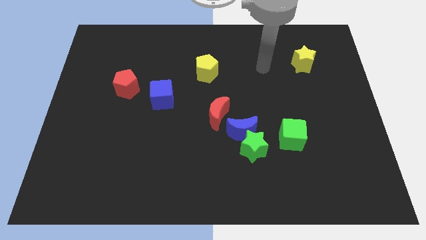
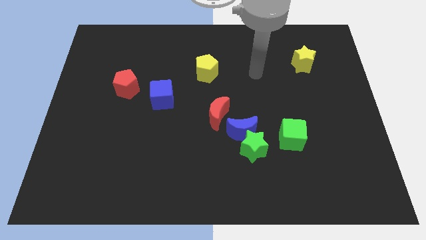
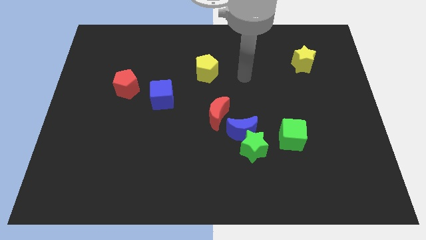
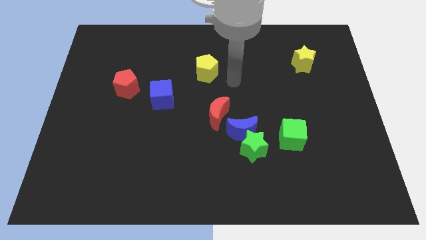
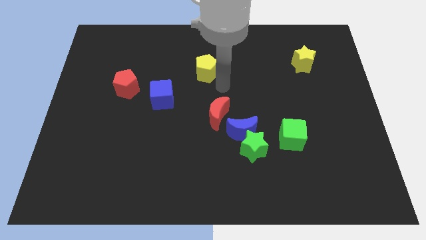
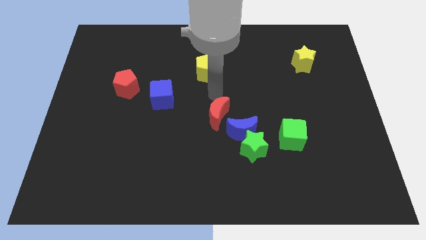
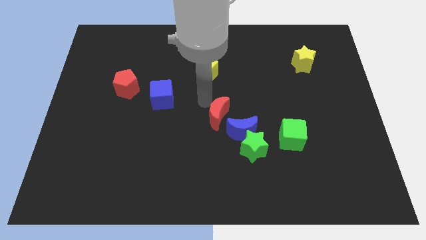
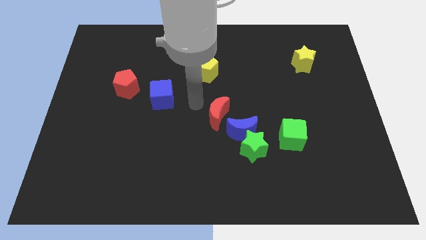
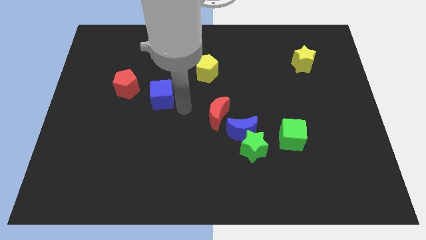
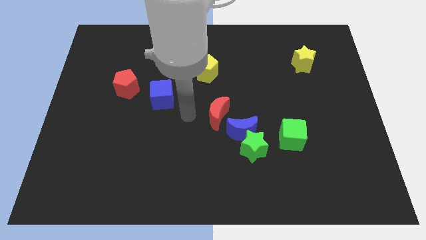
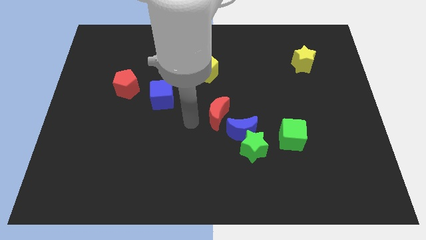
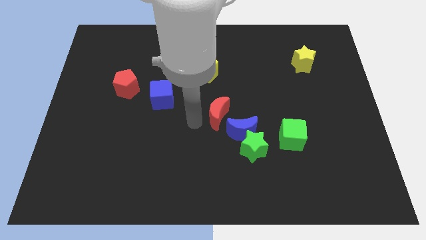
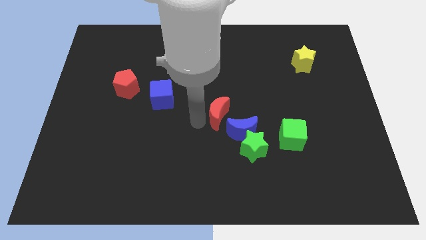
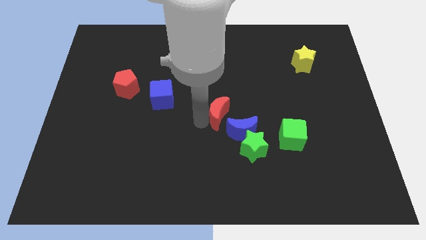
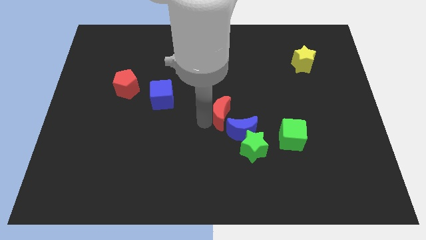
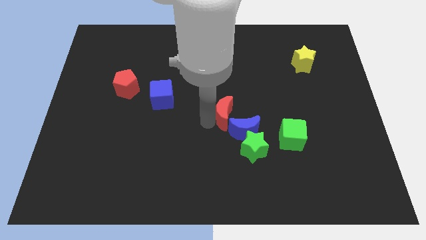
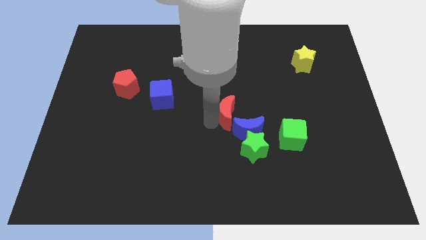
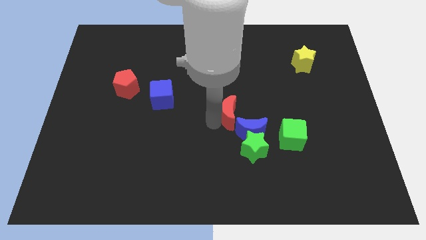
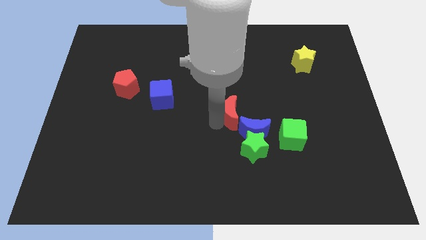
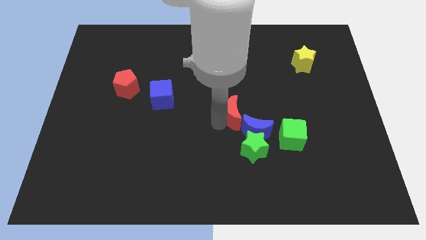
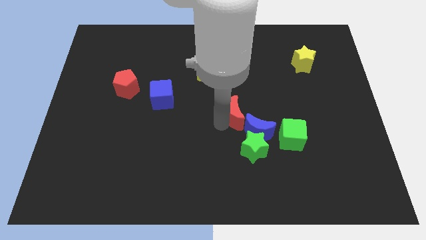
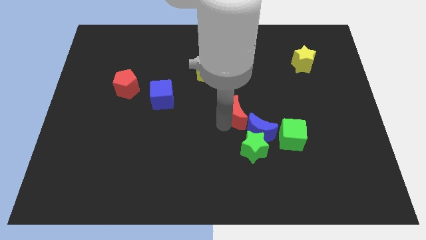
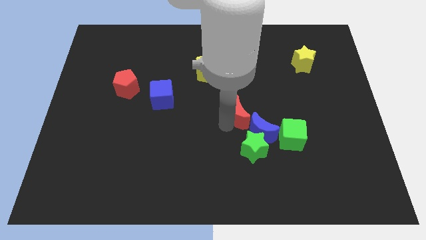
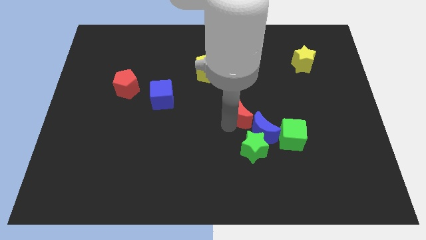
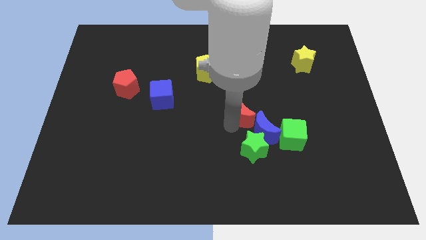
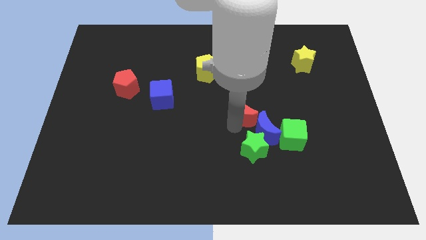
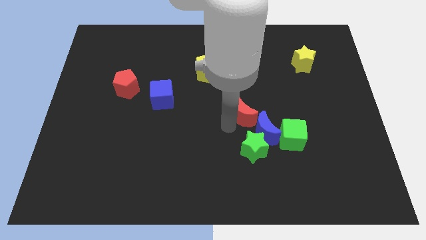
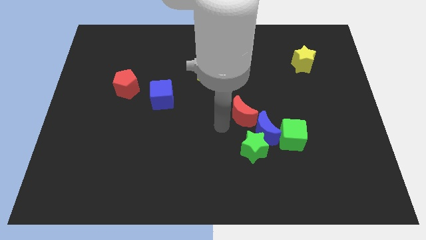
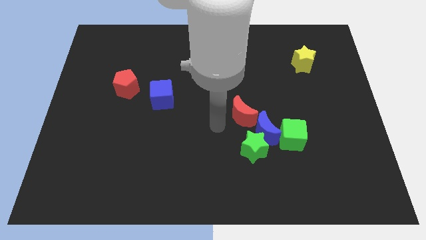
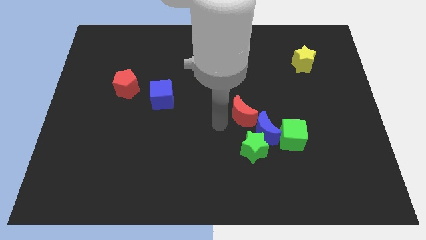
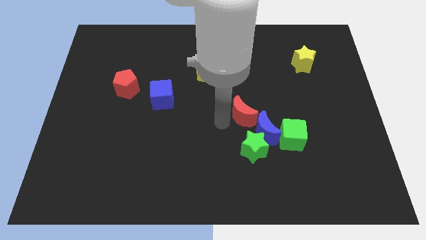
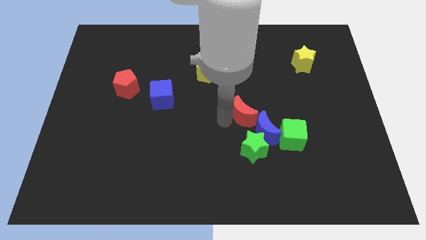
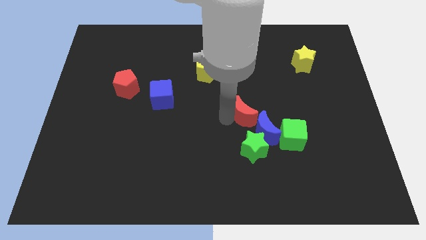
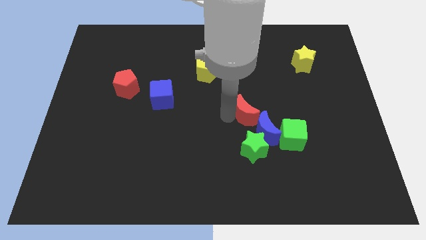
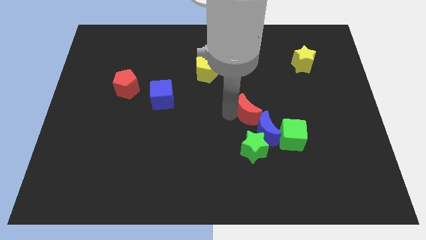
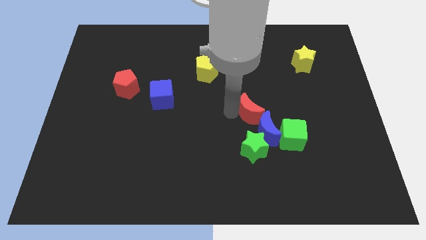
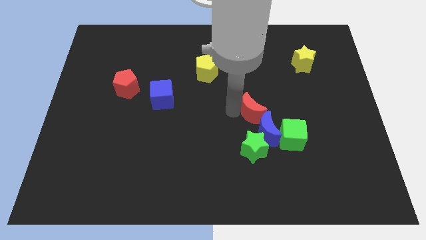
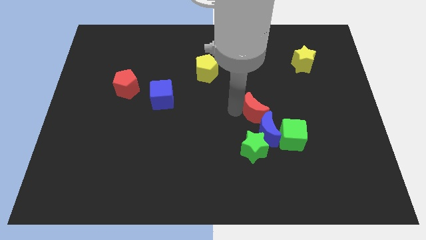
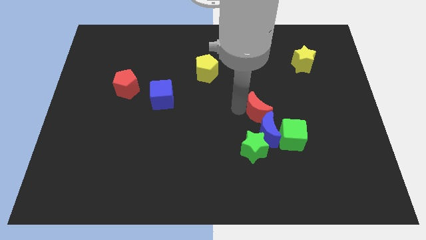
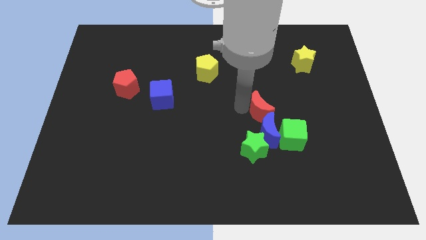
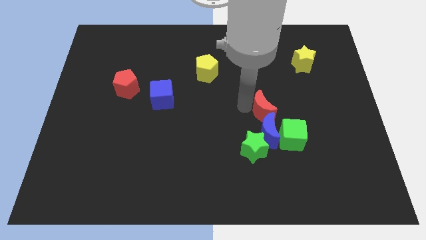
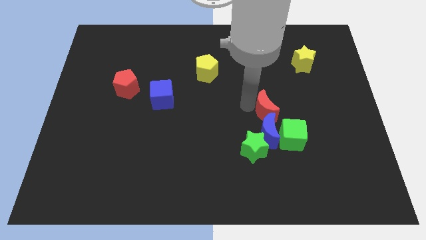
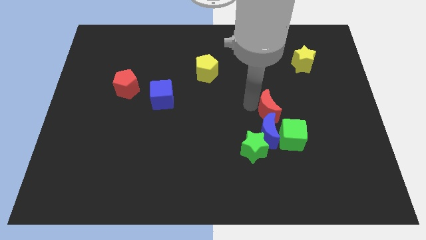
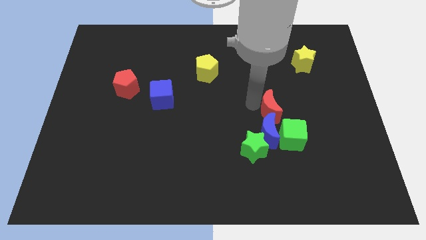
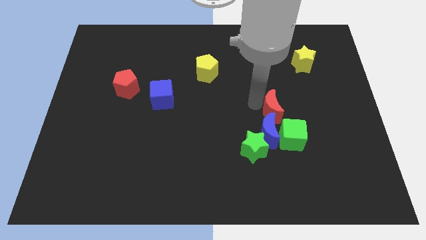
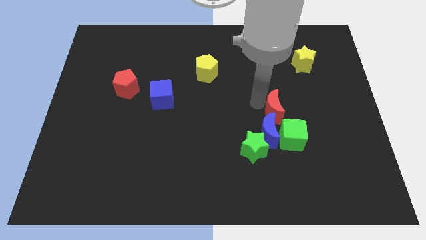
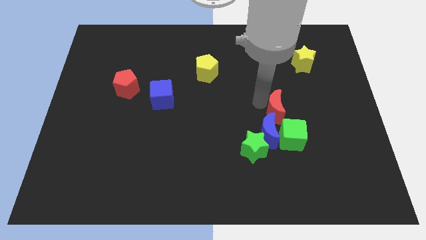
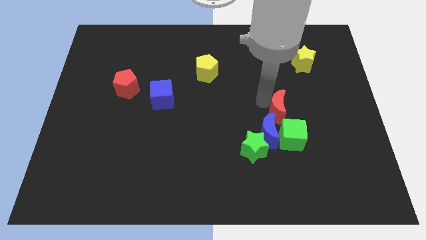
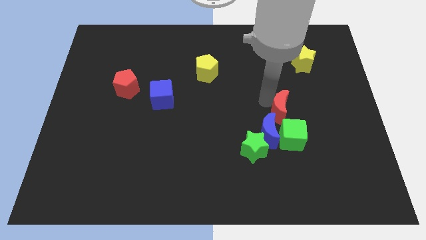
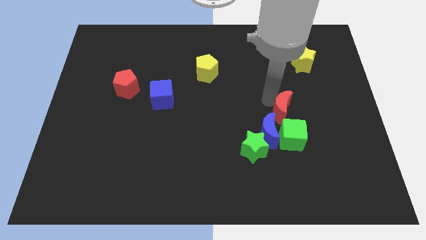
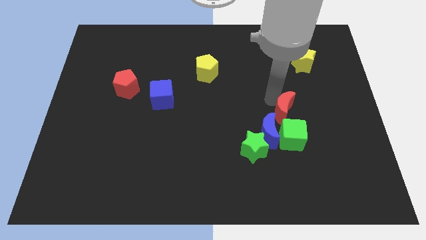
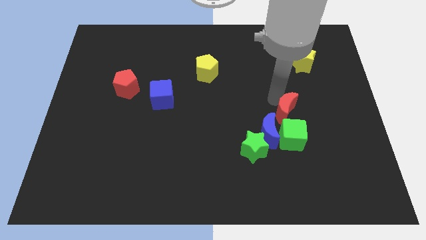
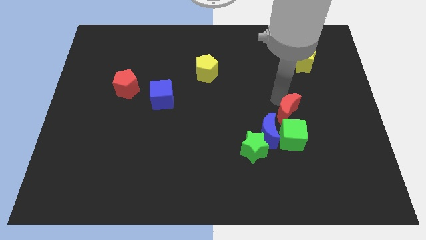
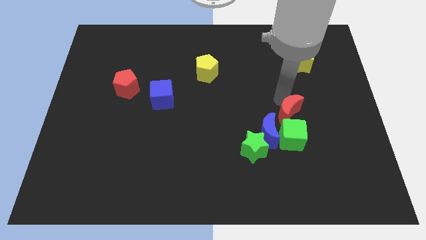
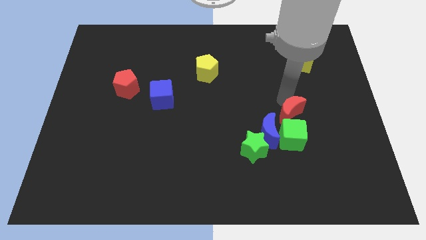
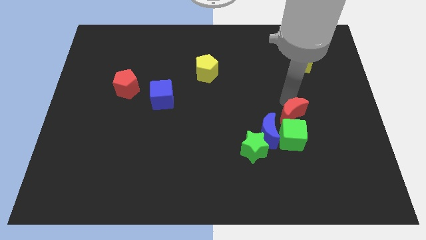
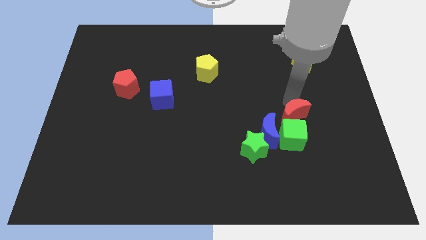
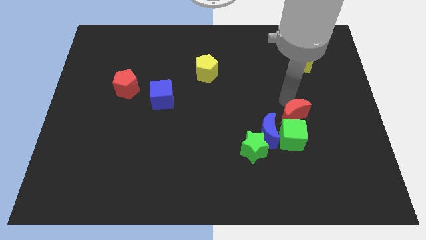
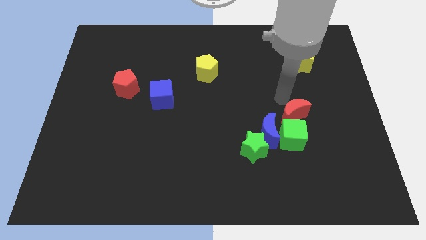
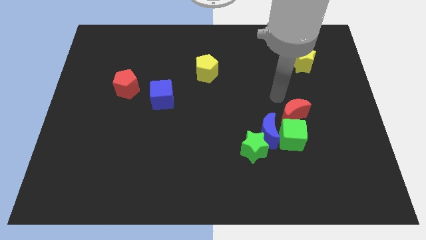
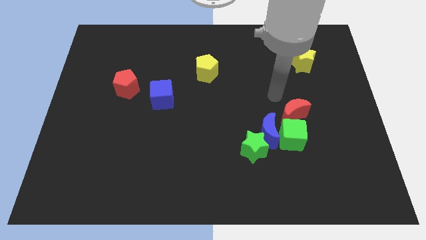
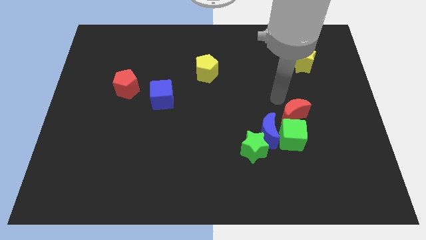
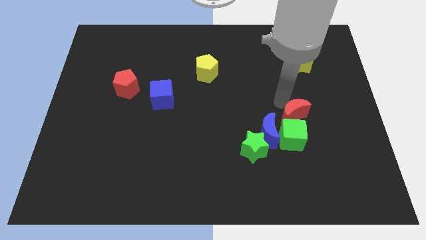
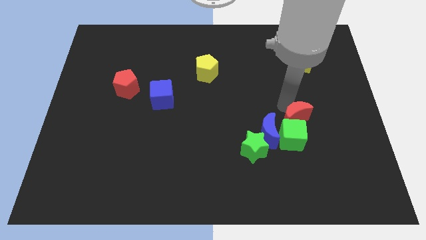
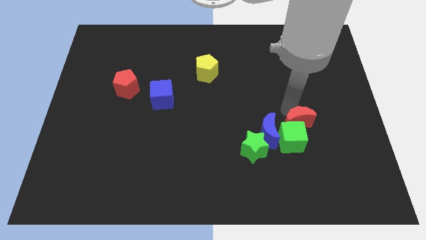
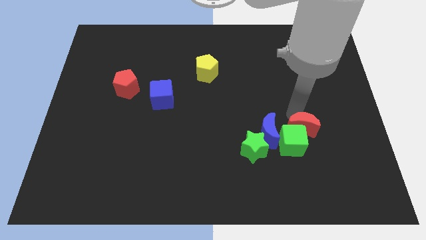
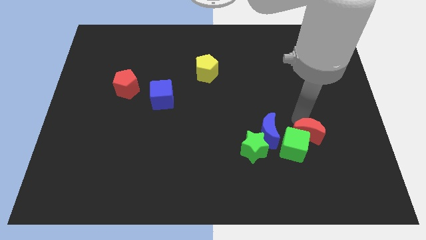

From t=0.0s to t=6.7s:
put the red moon just right of the green star

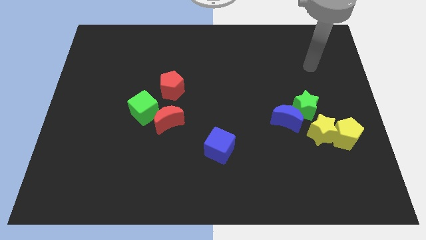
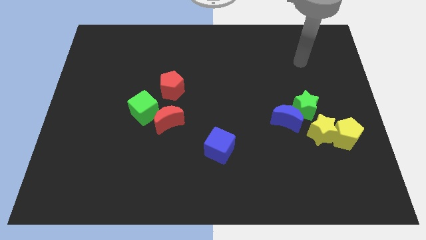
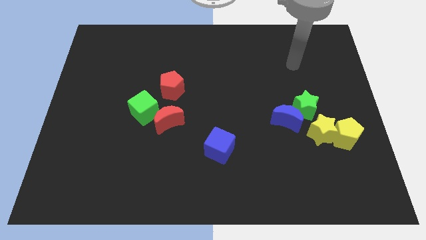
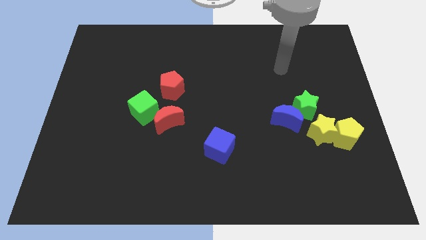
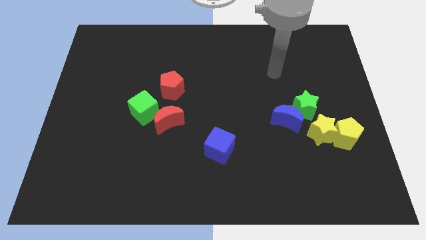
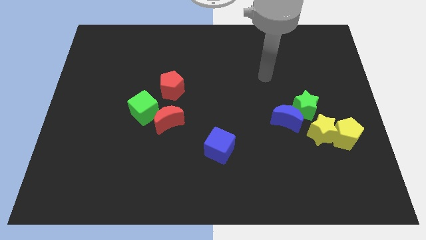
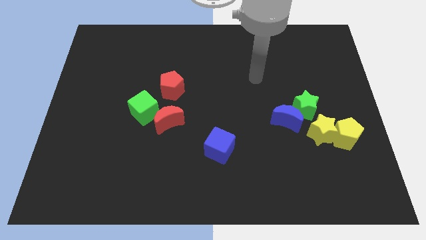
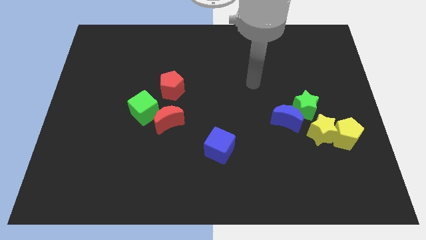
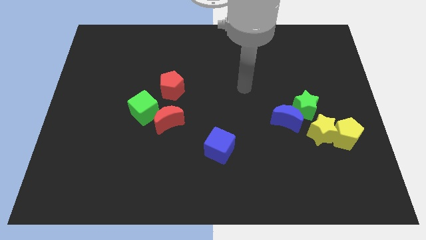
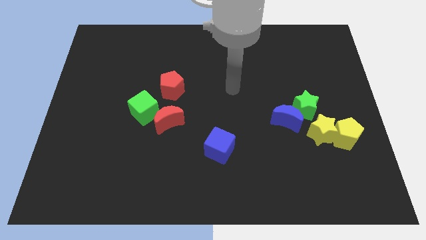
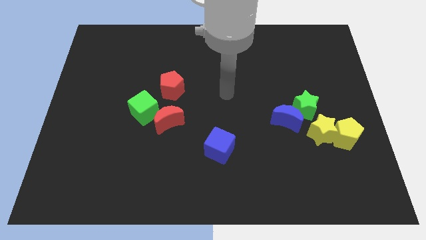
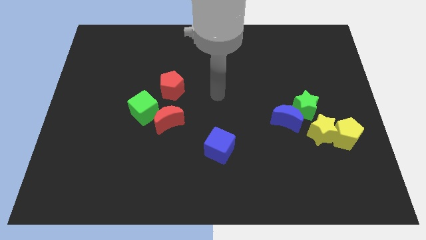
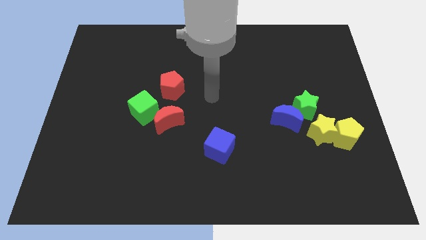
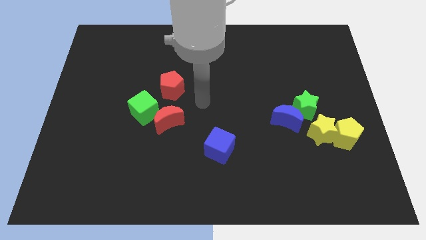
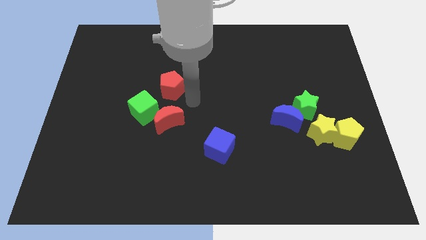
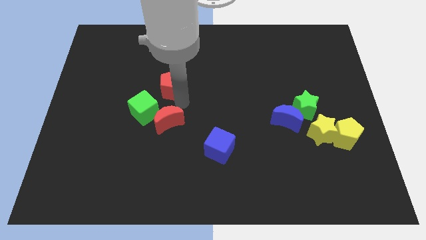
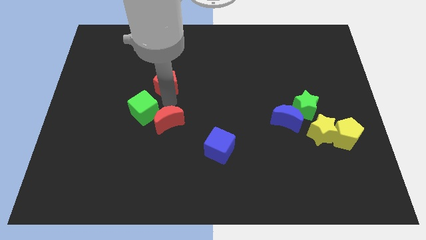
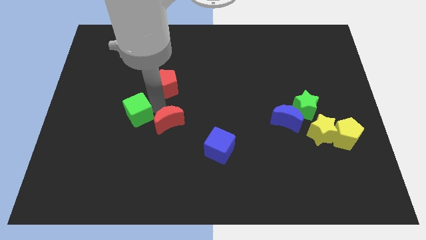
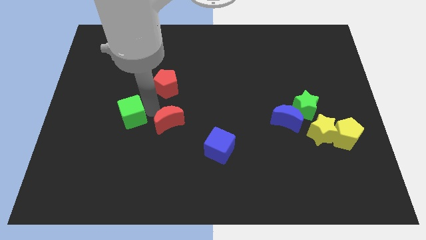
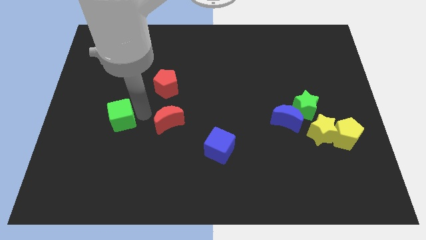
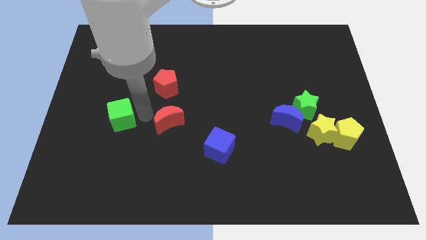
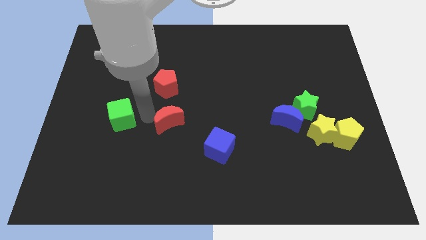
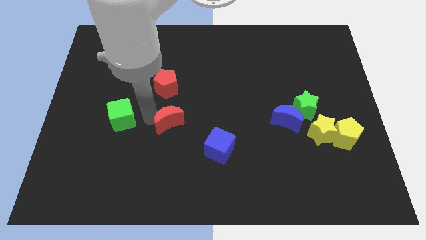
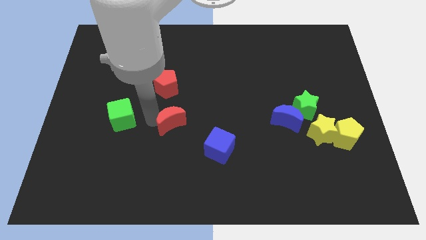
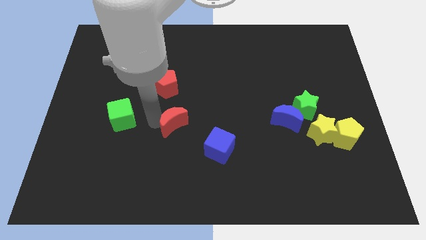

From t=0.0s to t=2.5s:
push the red moon to the top left side of the blue cube
